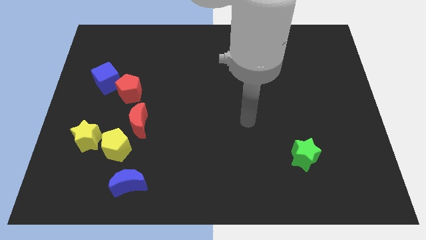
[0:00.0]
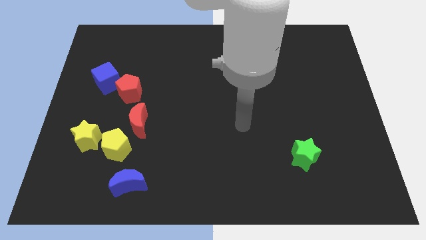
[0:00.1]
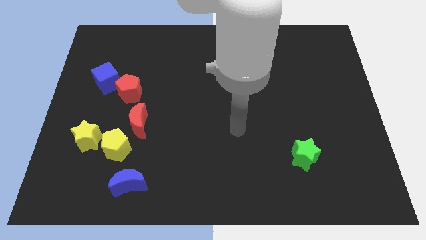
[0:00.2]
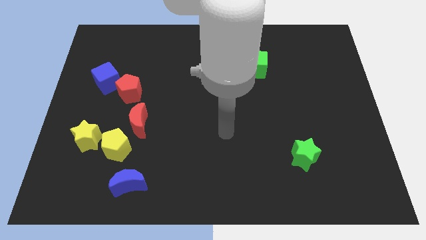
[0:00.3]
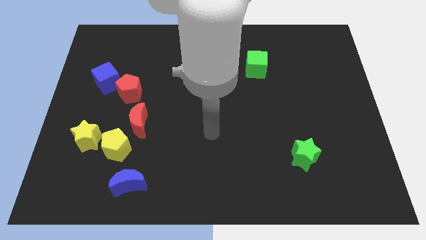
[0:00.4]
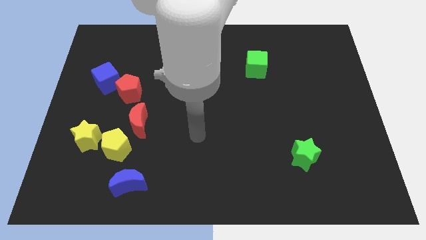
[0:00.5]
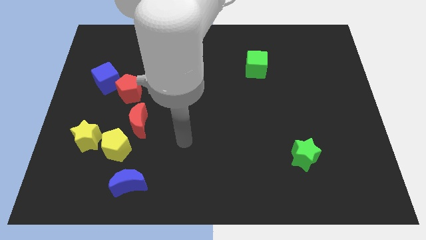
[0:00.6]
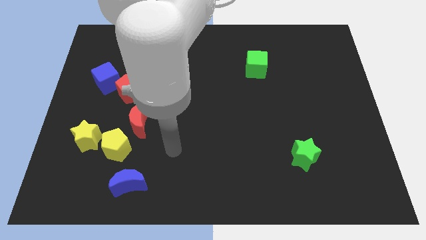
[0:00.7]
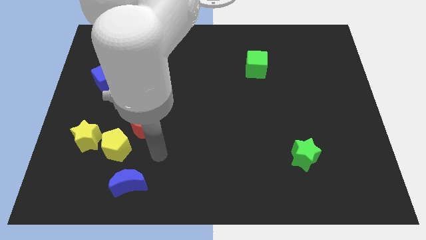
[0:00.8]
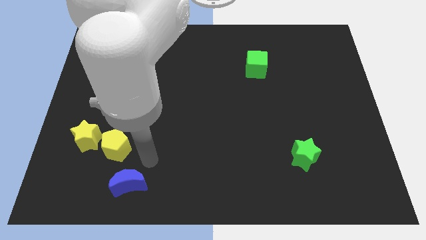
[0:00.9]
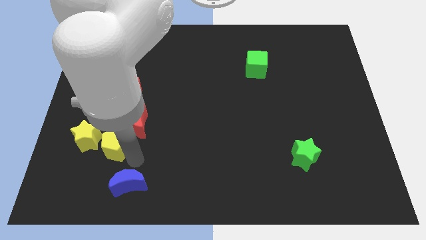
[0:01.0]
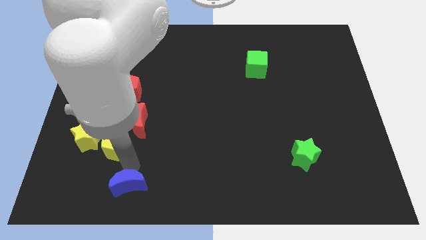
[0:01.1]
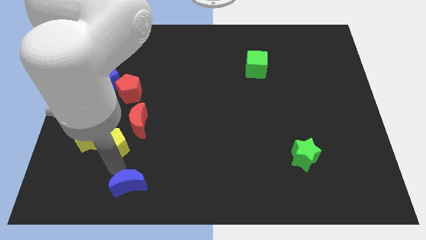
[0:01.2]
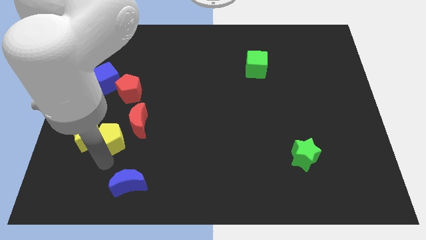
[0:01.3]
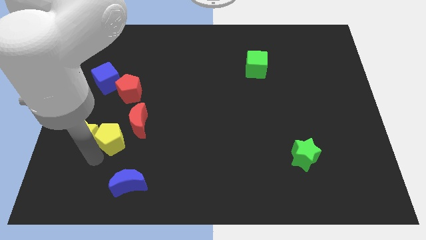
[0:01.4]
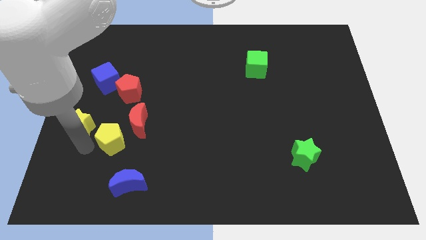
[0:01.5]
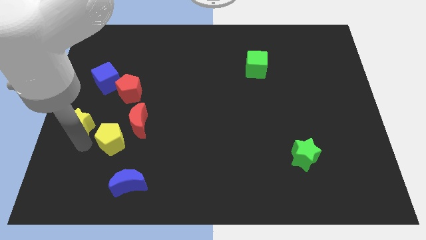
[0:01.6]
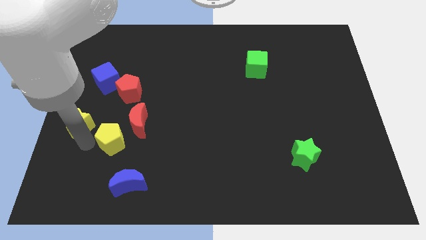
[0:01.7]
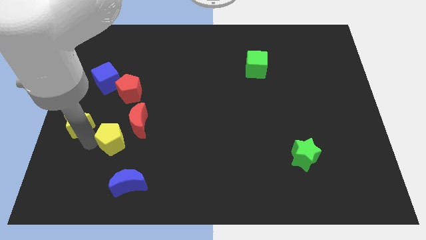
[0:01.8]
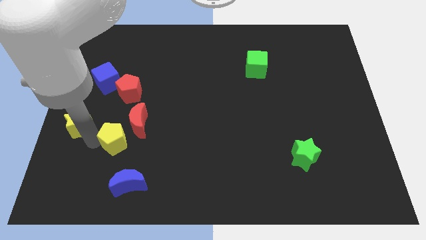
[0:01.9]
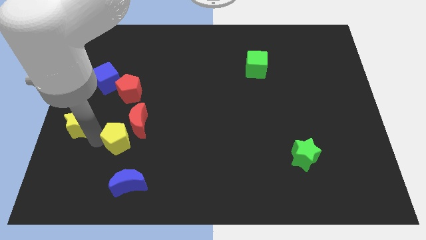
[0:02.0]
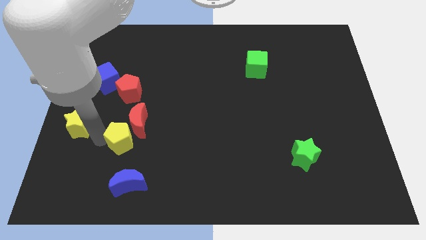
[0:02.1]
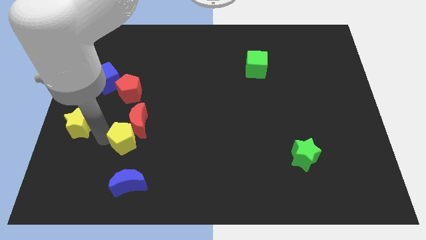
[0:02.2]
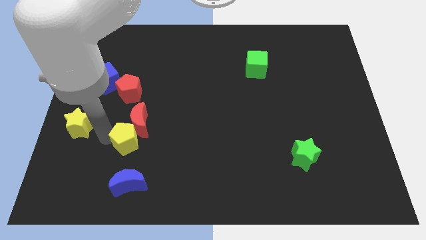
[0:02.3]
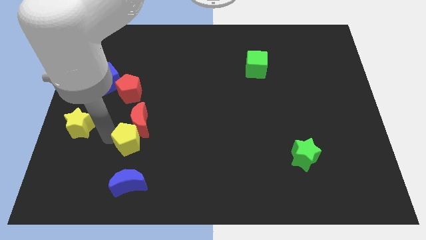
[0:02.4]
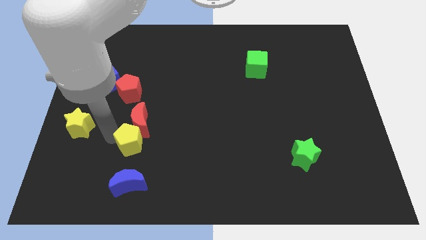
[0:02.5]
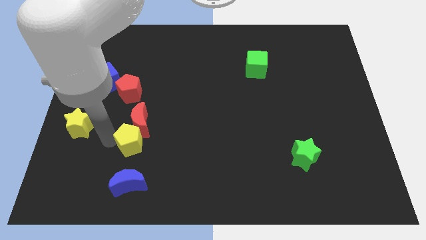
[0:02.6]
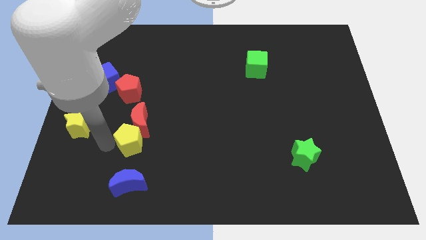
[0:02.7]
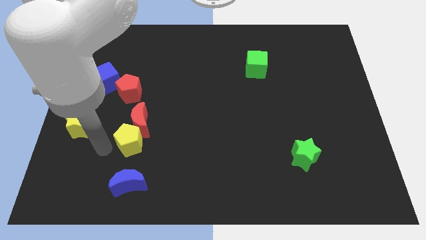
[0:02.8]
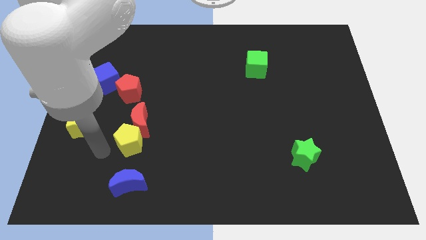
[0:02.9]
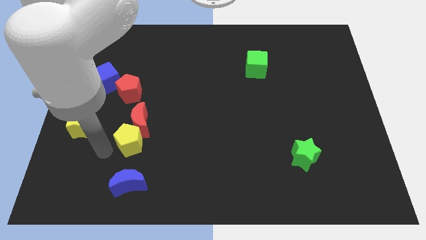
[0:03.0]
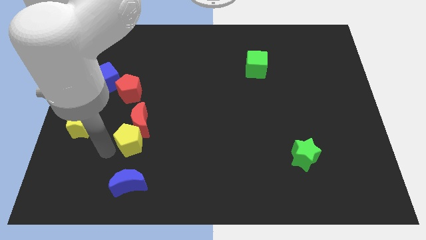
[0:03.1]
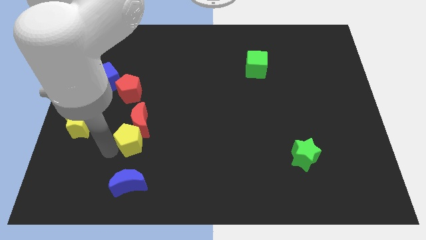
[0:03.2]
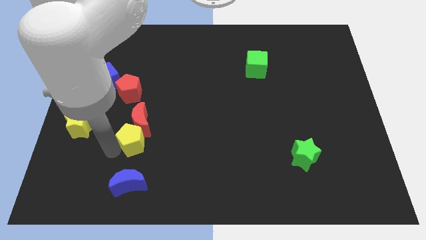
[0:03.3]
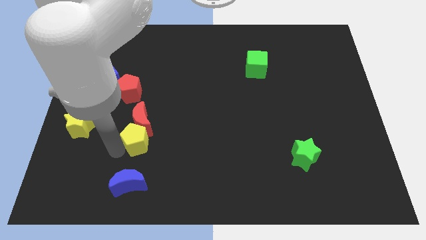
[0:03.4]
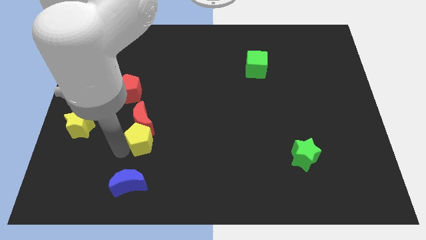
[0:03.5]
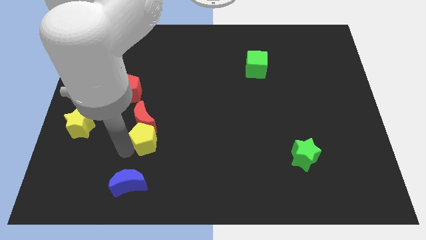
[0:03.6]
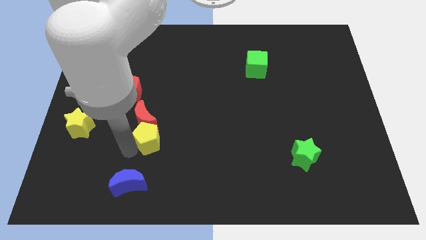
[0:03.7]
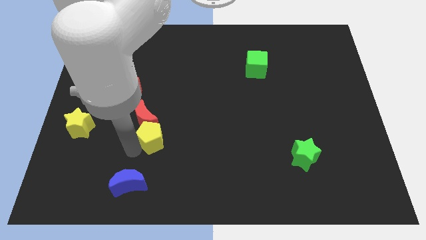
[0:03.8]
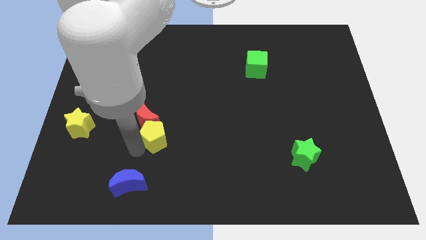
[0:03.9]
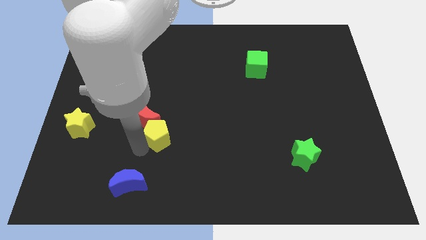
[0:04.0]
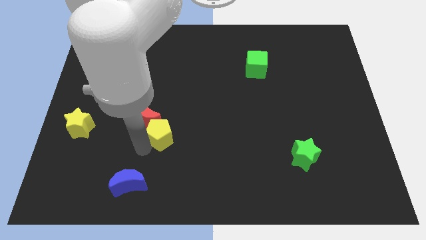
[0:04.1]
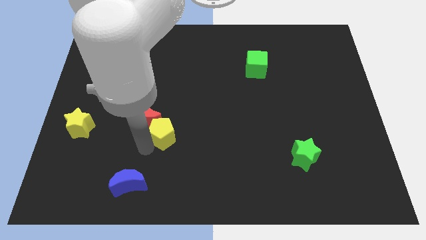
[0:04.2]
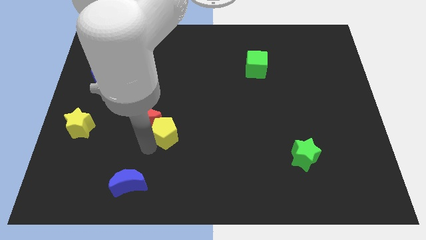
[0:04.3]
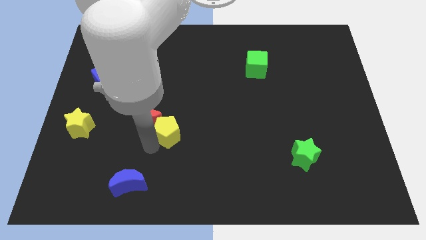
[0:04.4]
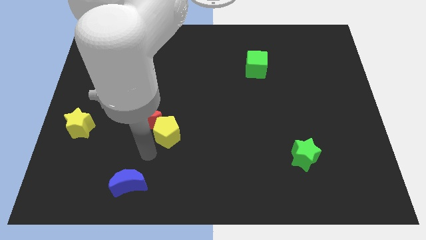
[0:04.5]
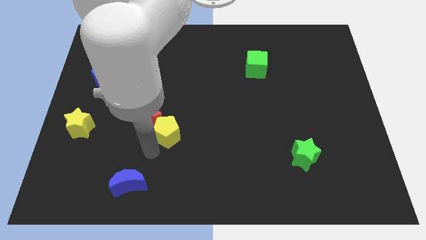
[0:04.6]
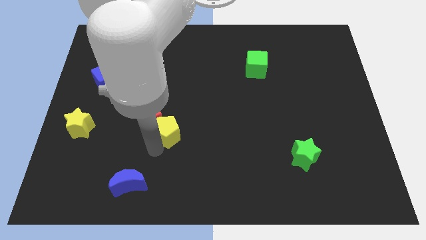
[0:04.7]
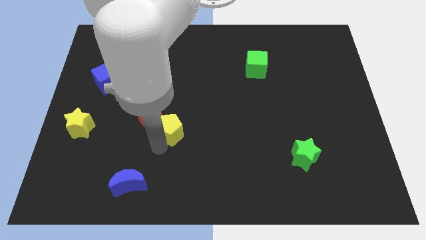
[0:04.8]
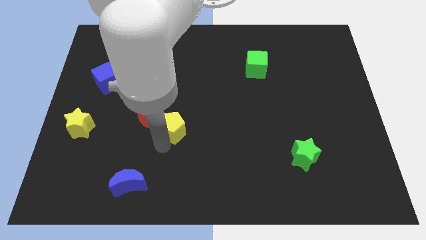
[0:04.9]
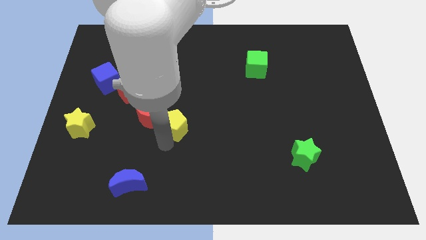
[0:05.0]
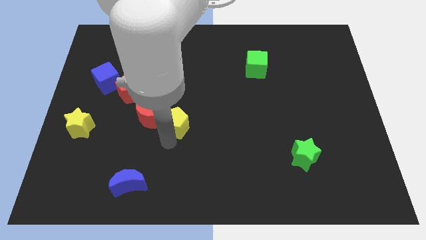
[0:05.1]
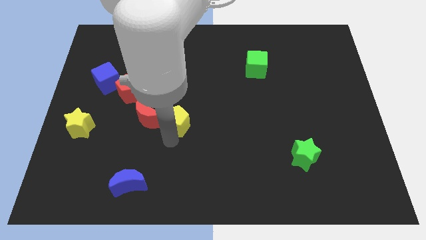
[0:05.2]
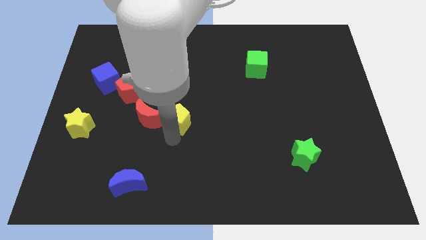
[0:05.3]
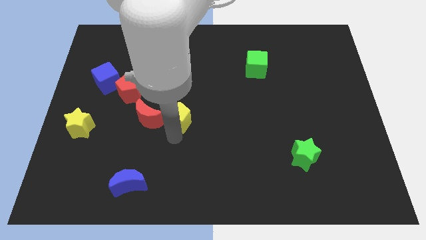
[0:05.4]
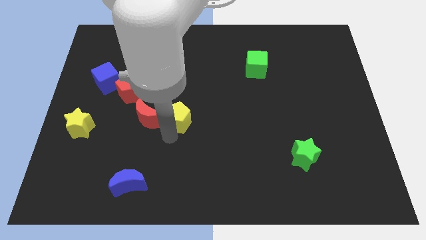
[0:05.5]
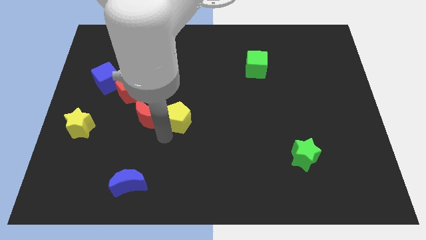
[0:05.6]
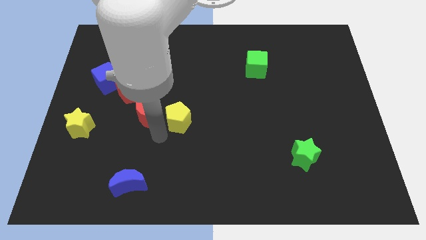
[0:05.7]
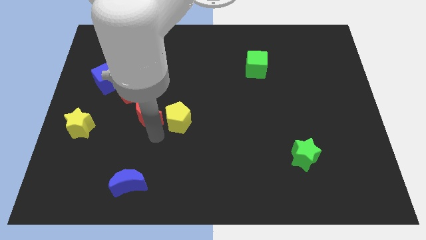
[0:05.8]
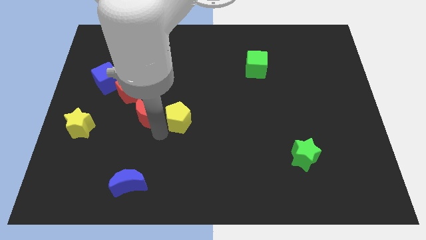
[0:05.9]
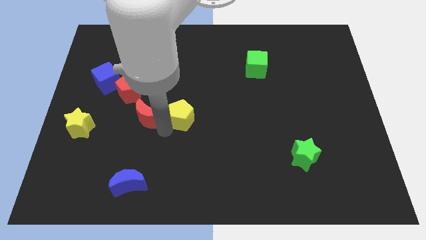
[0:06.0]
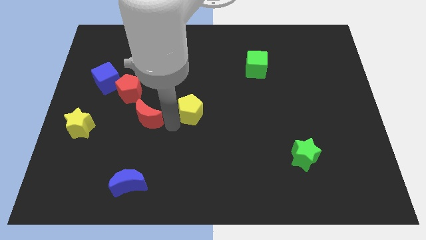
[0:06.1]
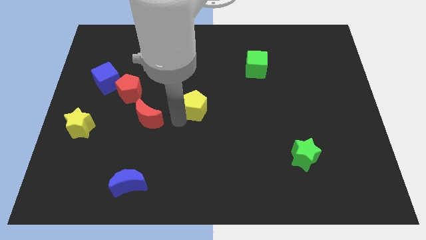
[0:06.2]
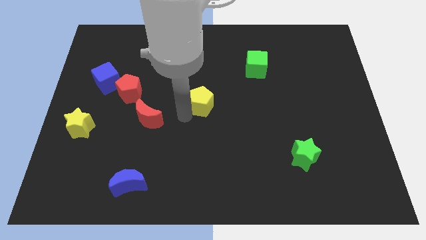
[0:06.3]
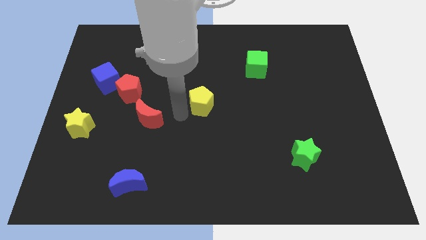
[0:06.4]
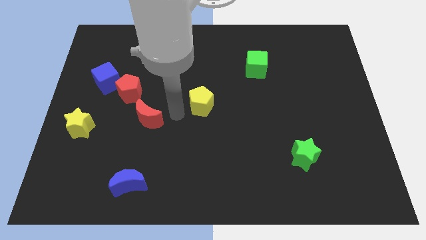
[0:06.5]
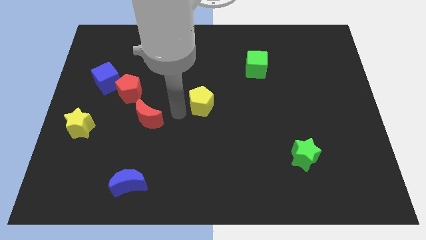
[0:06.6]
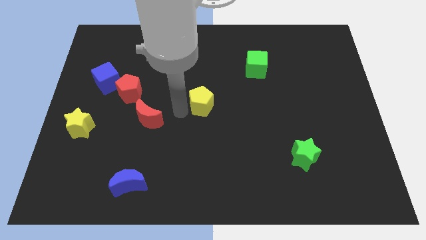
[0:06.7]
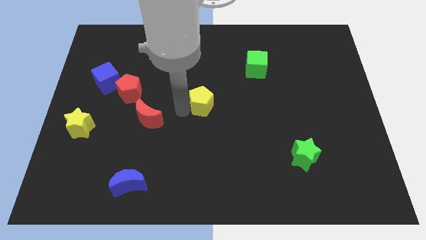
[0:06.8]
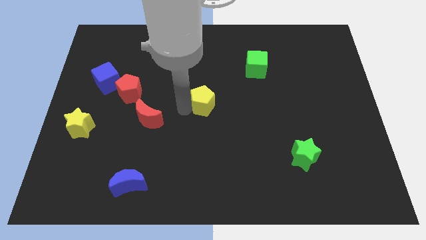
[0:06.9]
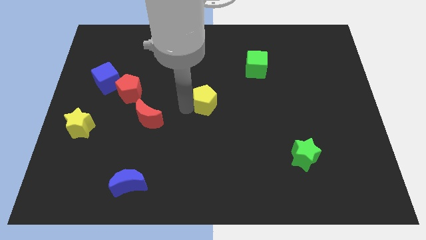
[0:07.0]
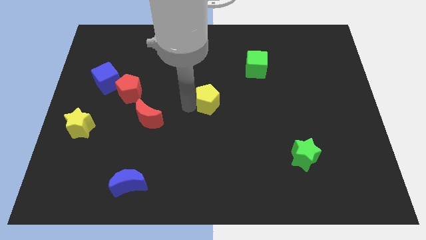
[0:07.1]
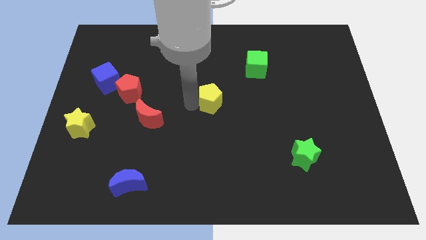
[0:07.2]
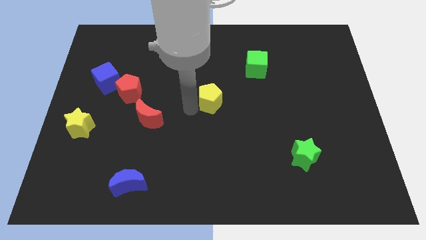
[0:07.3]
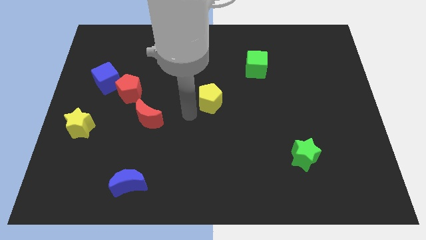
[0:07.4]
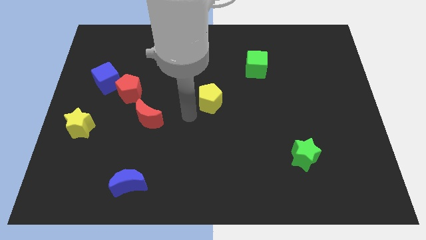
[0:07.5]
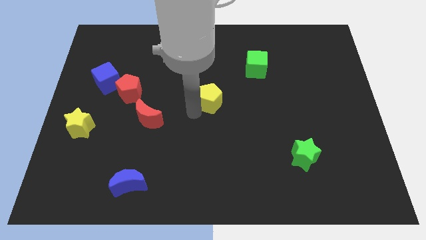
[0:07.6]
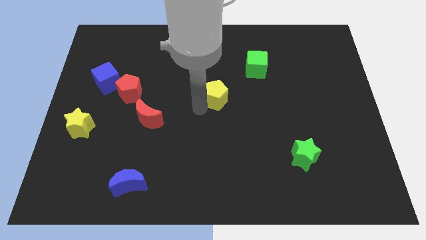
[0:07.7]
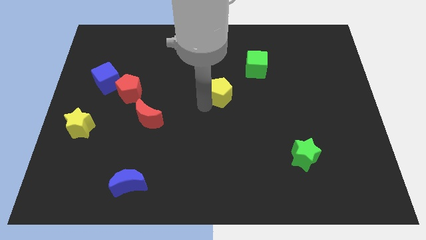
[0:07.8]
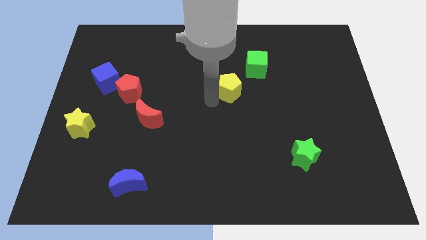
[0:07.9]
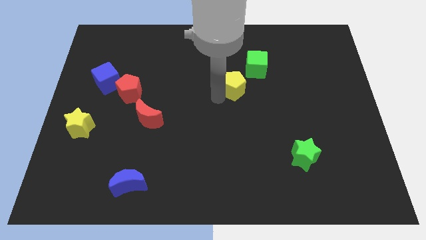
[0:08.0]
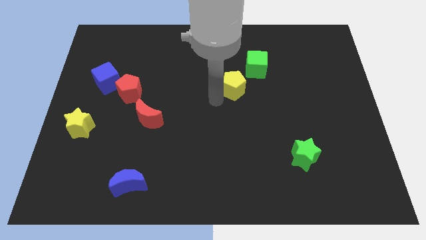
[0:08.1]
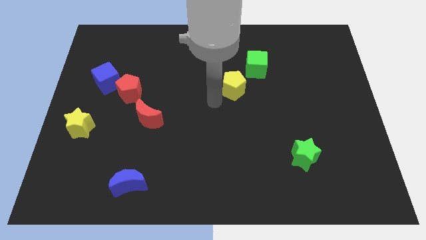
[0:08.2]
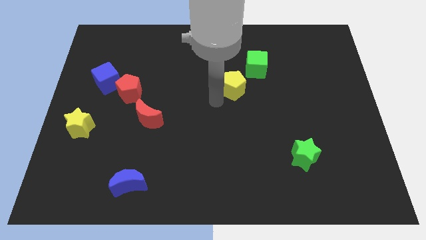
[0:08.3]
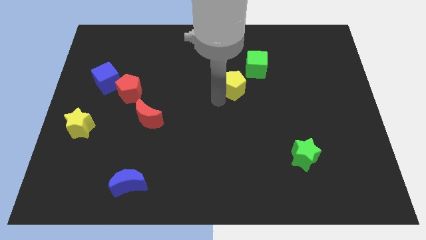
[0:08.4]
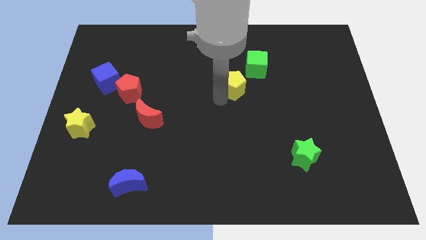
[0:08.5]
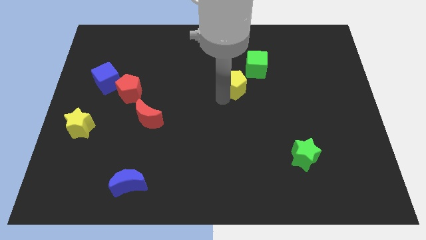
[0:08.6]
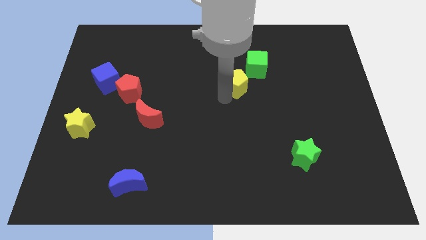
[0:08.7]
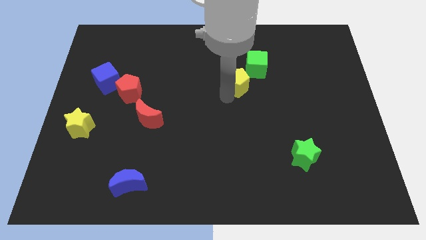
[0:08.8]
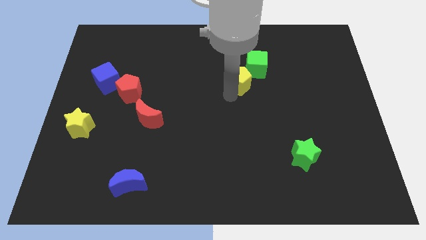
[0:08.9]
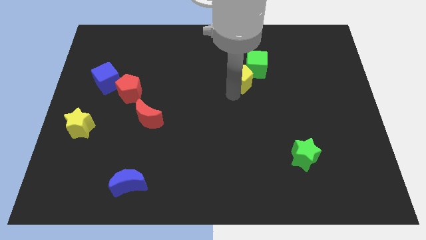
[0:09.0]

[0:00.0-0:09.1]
put the yellow pentagon close to the green cube
